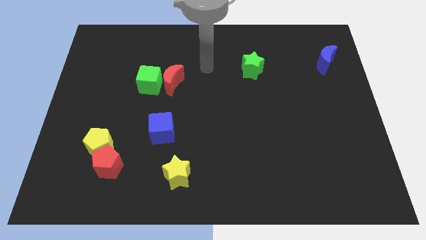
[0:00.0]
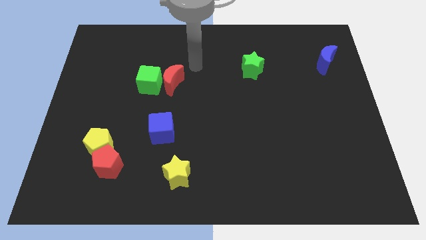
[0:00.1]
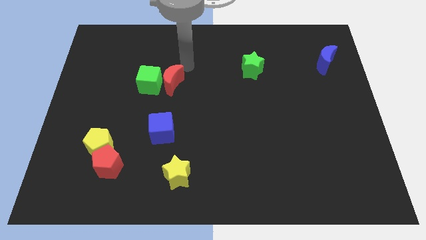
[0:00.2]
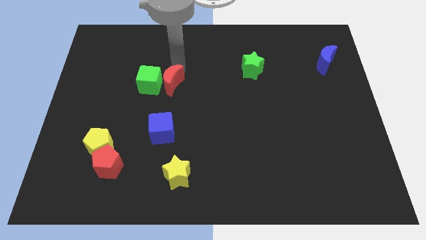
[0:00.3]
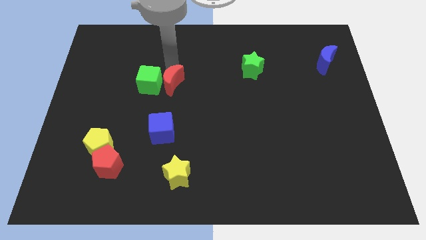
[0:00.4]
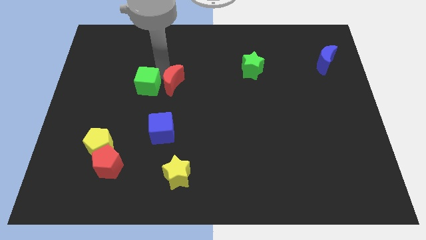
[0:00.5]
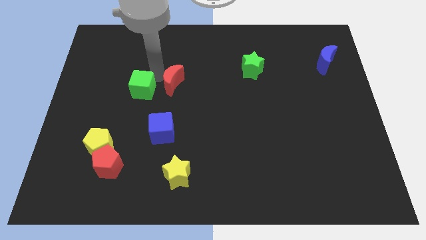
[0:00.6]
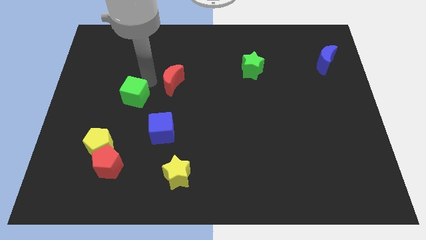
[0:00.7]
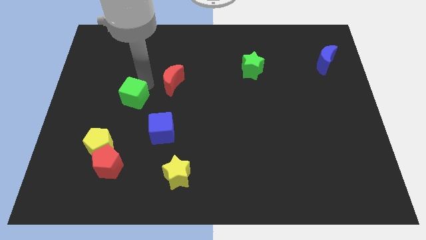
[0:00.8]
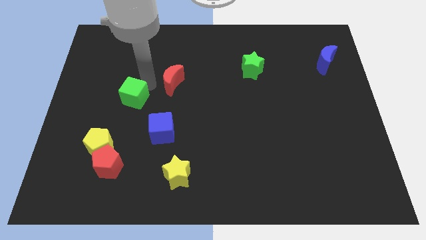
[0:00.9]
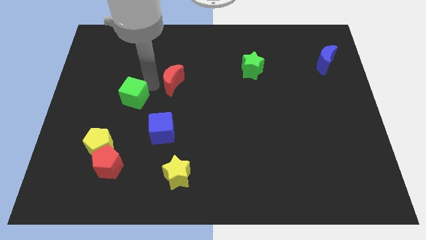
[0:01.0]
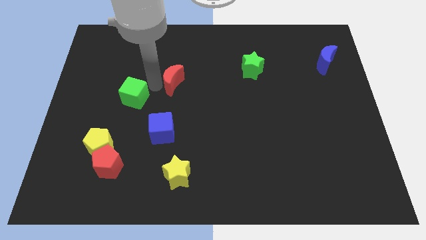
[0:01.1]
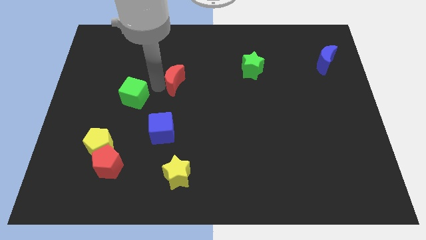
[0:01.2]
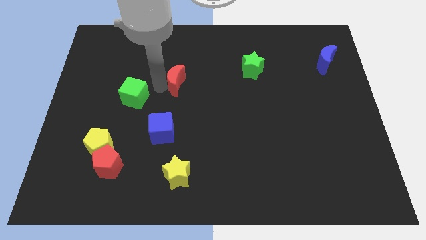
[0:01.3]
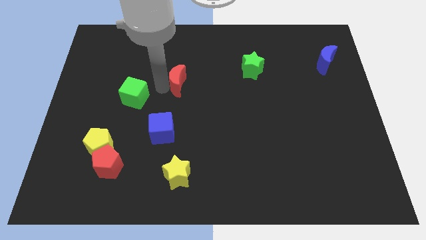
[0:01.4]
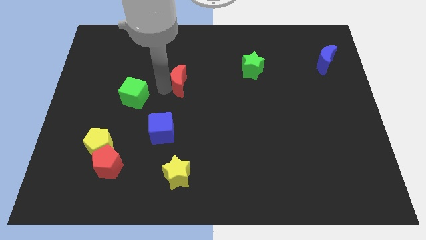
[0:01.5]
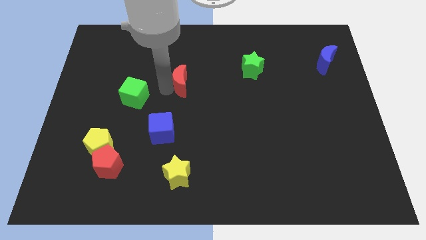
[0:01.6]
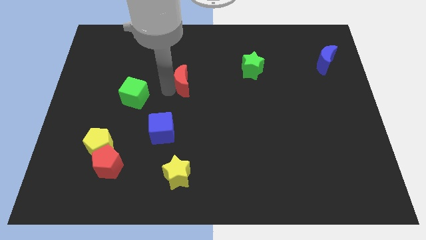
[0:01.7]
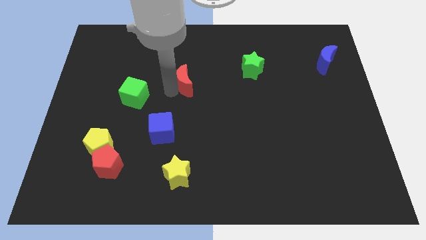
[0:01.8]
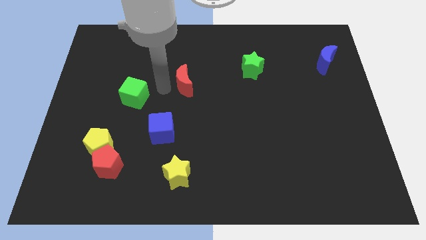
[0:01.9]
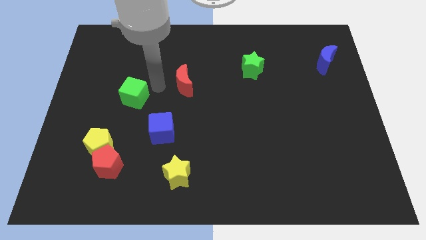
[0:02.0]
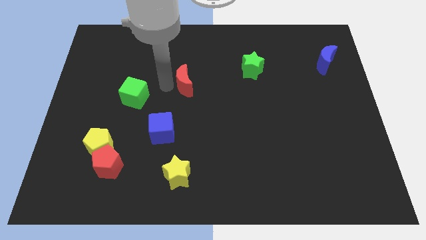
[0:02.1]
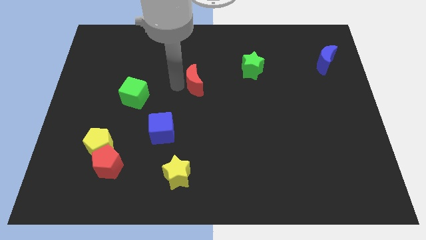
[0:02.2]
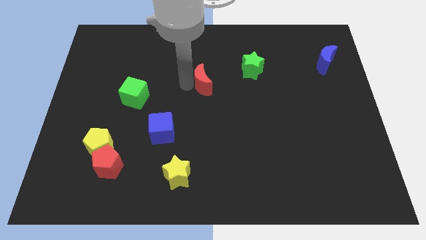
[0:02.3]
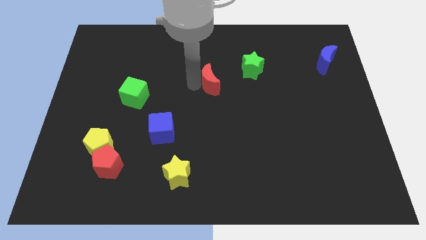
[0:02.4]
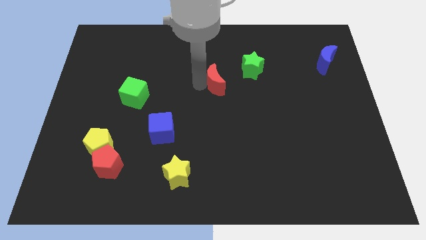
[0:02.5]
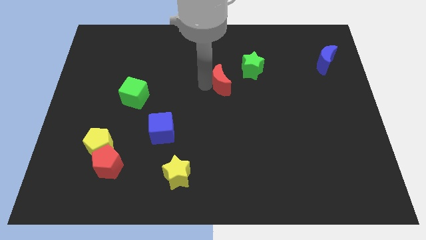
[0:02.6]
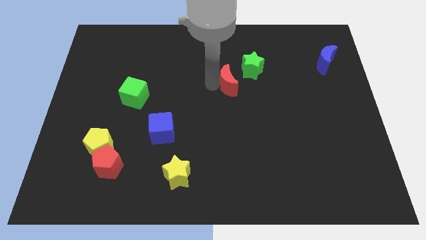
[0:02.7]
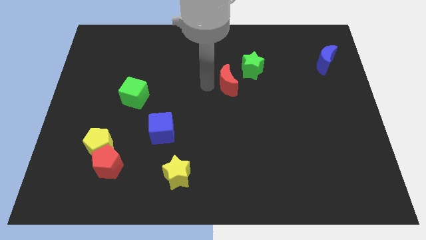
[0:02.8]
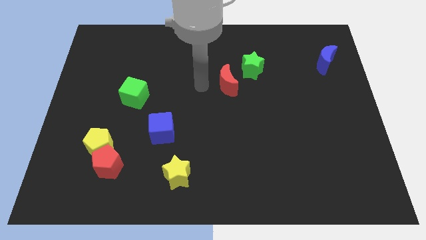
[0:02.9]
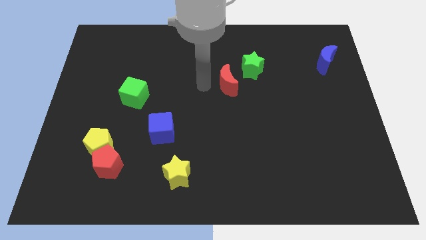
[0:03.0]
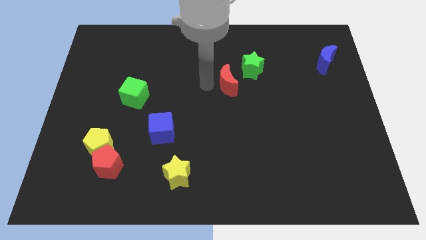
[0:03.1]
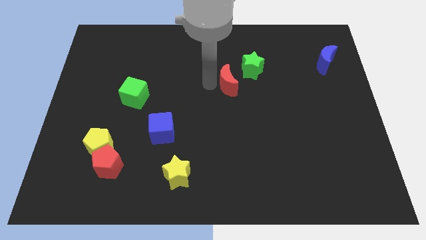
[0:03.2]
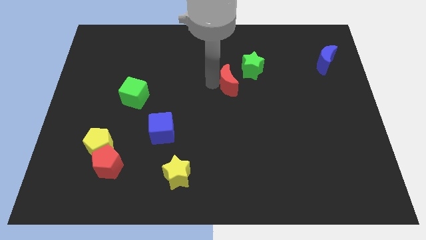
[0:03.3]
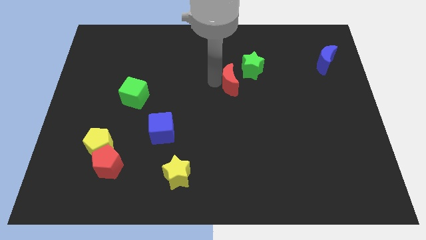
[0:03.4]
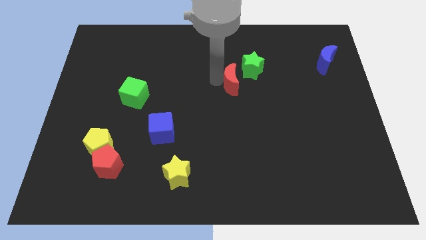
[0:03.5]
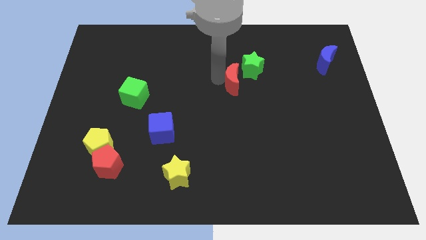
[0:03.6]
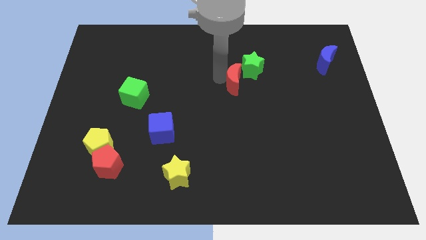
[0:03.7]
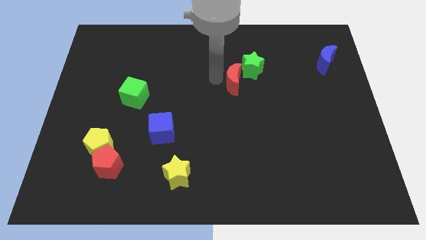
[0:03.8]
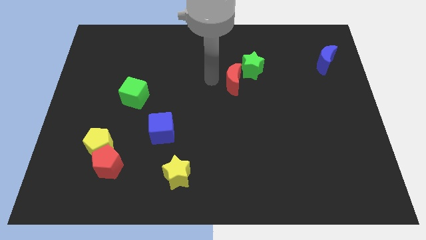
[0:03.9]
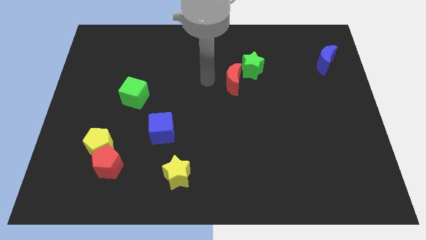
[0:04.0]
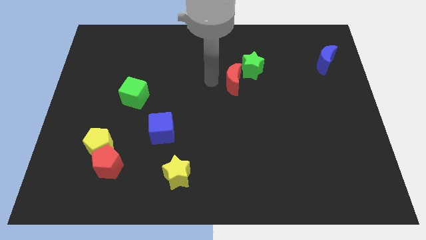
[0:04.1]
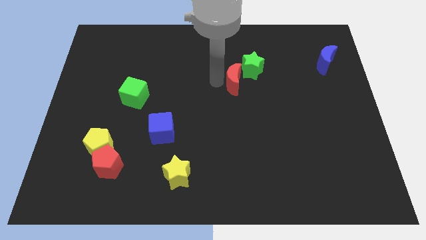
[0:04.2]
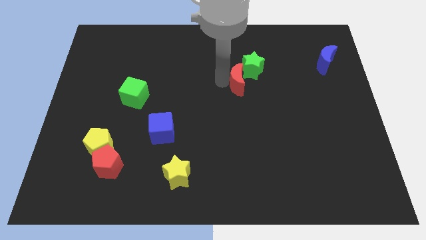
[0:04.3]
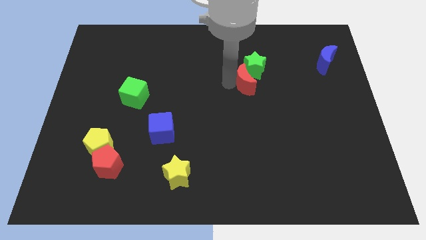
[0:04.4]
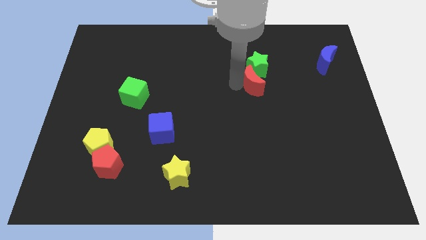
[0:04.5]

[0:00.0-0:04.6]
slide the red moon to the right

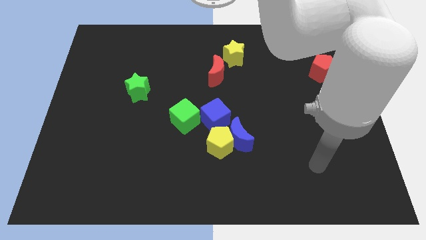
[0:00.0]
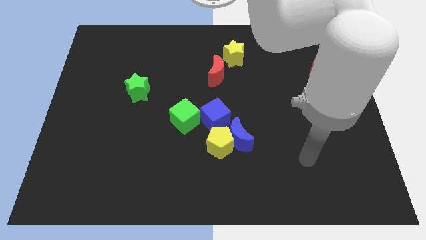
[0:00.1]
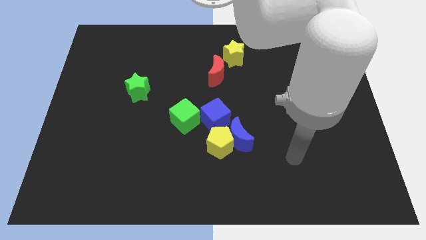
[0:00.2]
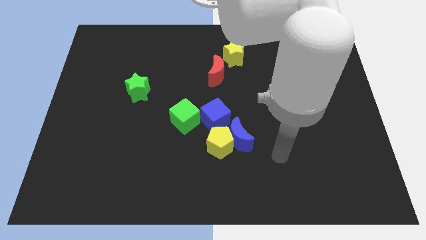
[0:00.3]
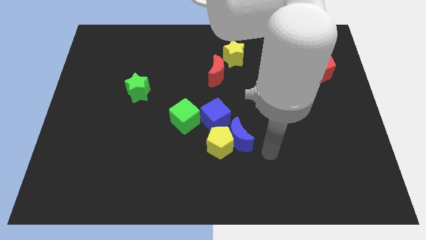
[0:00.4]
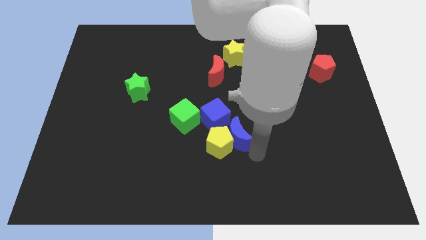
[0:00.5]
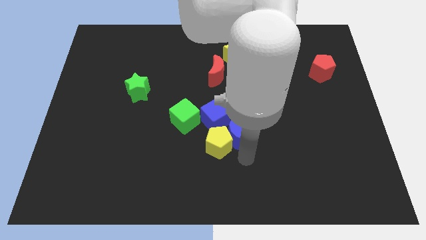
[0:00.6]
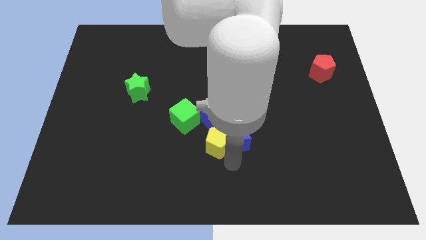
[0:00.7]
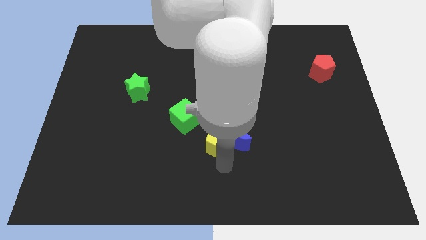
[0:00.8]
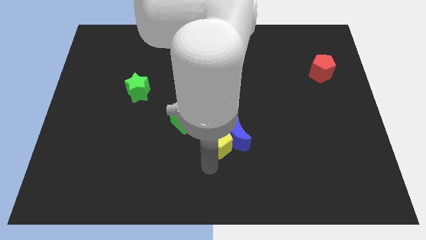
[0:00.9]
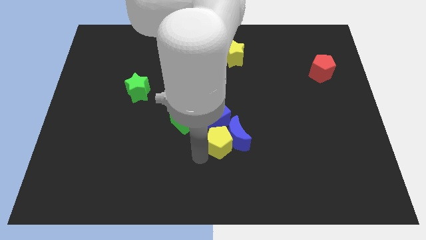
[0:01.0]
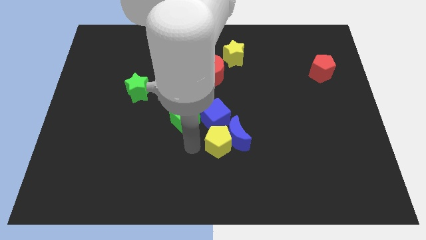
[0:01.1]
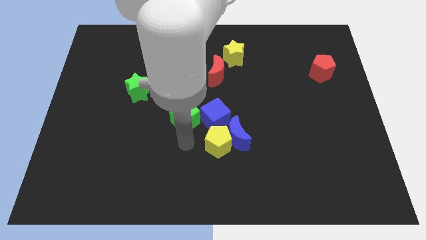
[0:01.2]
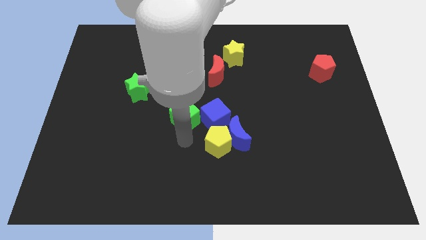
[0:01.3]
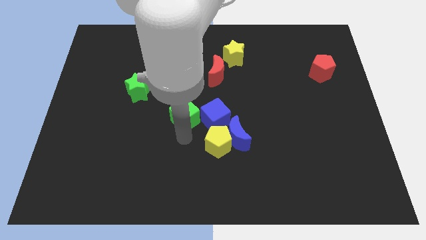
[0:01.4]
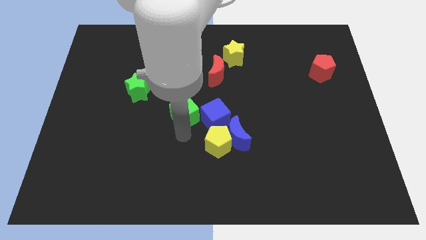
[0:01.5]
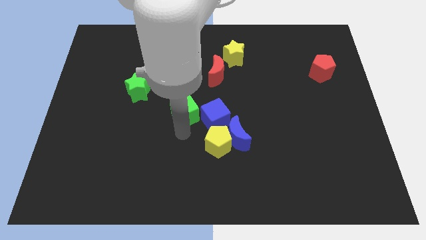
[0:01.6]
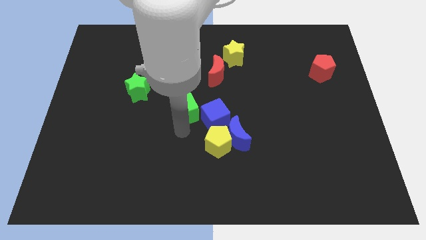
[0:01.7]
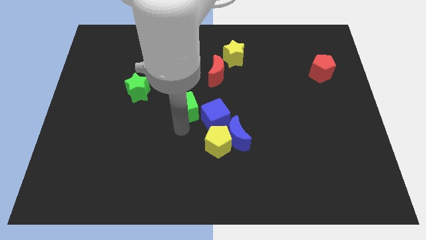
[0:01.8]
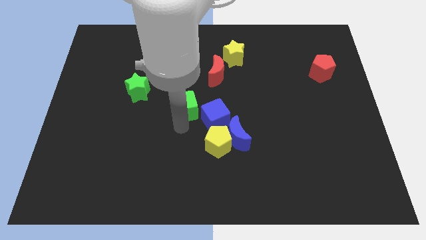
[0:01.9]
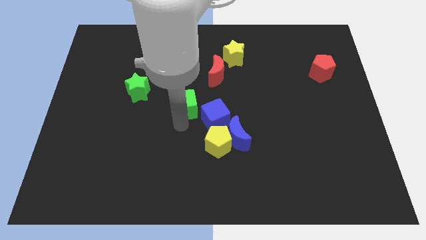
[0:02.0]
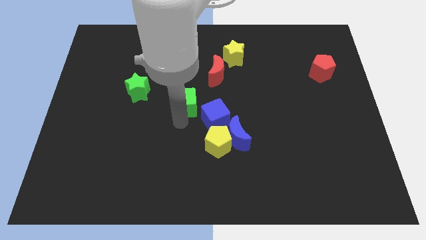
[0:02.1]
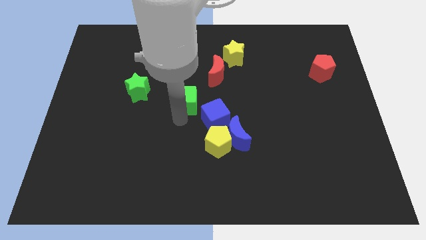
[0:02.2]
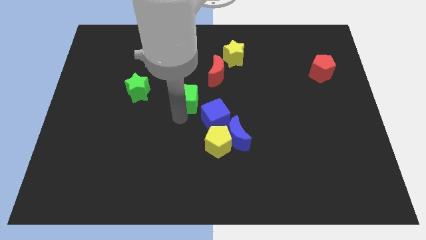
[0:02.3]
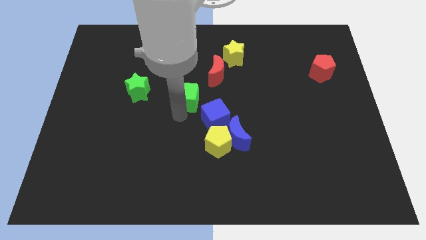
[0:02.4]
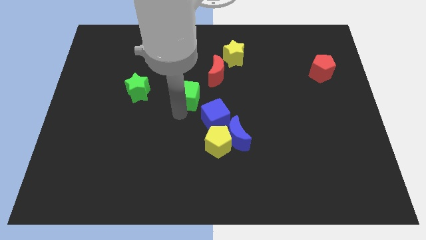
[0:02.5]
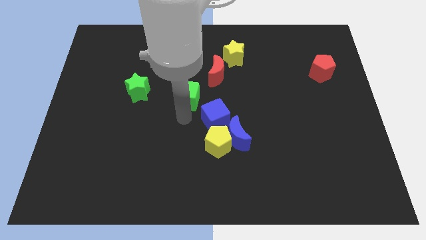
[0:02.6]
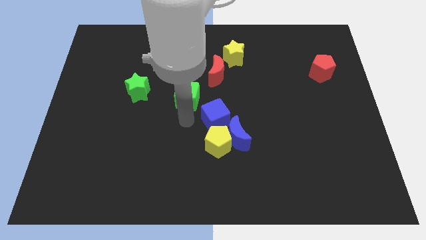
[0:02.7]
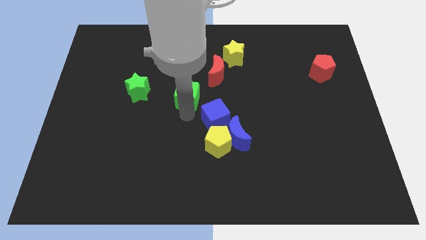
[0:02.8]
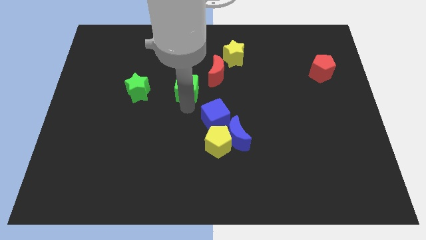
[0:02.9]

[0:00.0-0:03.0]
slide the green cube a little bit upwards

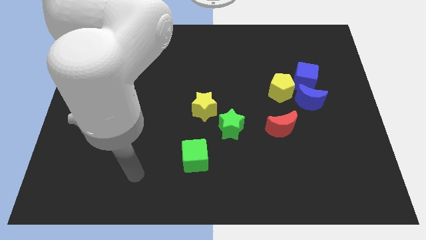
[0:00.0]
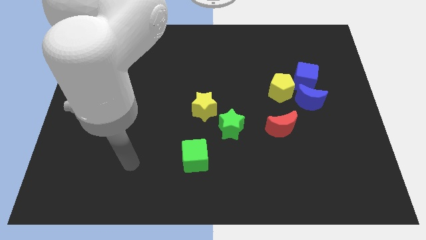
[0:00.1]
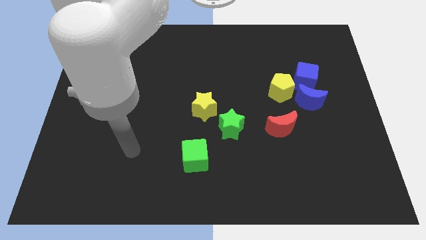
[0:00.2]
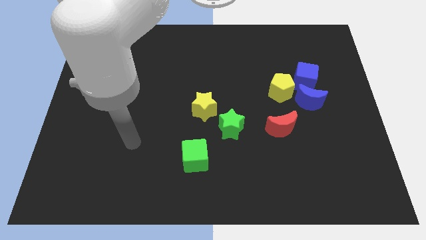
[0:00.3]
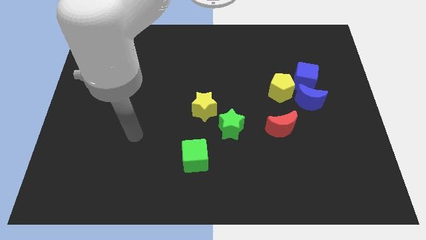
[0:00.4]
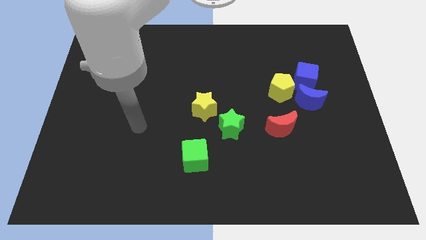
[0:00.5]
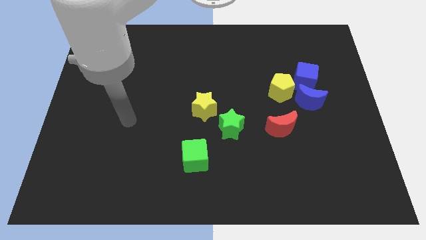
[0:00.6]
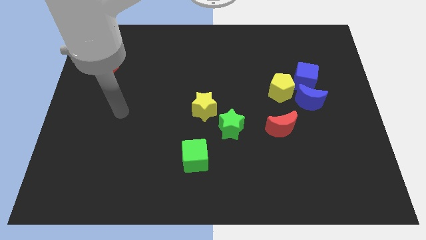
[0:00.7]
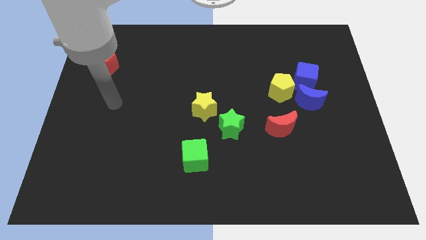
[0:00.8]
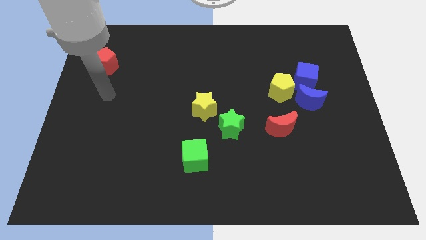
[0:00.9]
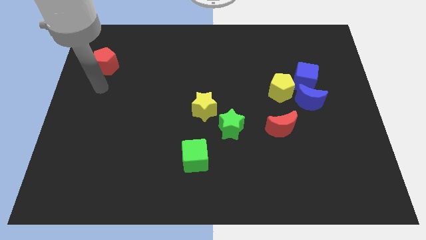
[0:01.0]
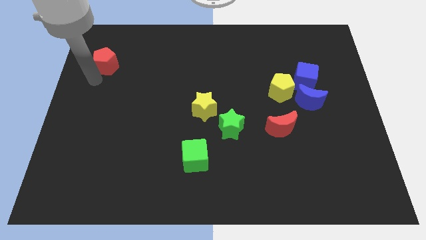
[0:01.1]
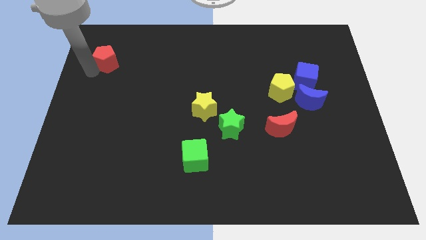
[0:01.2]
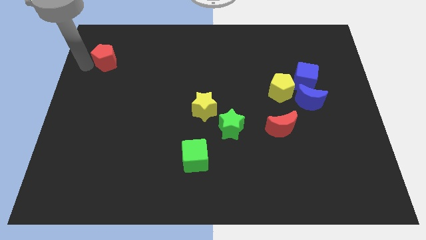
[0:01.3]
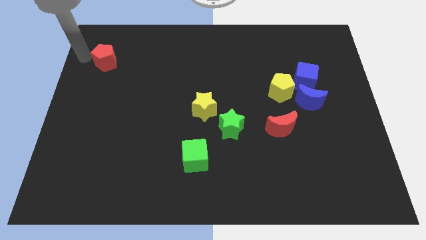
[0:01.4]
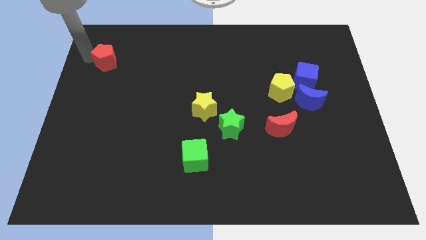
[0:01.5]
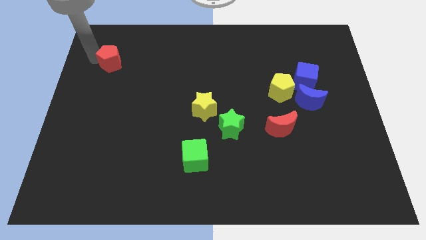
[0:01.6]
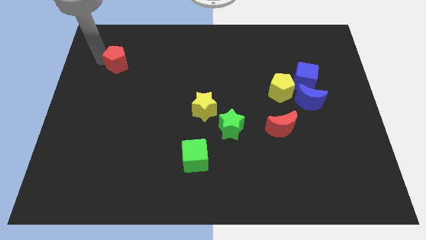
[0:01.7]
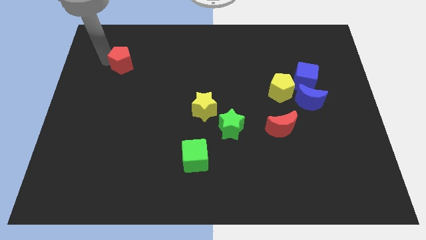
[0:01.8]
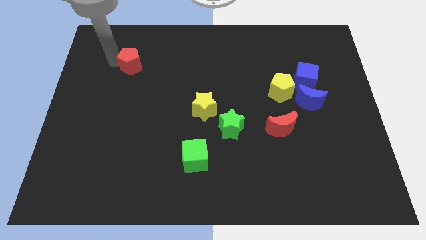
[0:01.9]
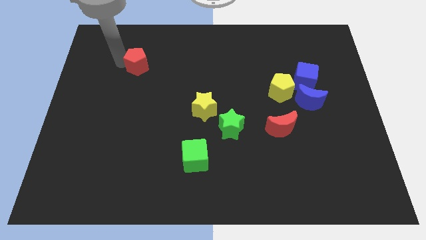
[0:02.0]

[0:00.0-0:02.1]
slightly move the red pentagon to the right
